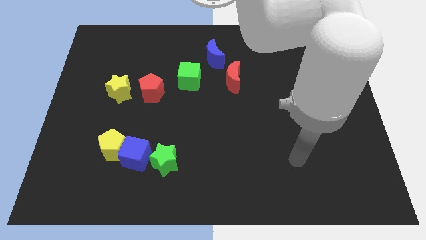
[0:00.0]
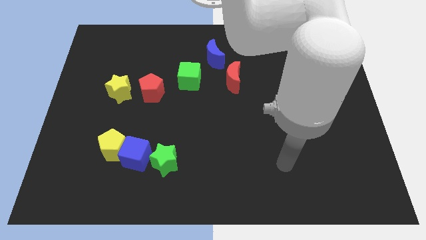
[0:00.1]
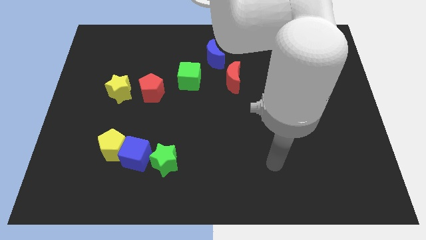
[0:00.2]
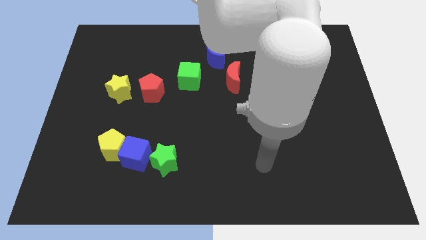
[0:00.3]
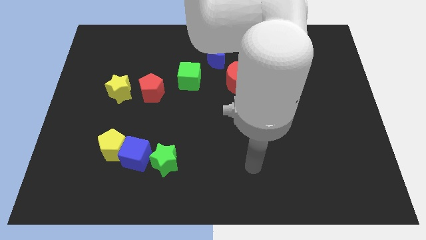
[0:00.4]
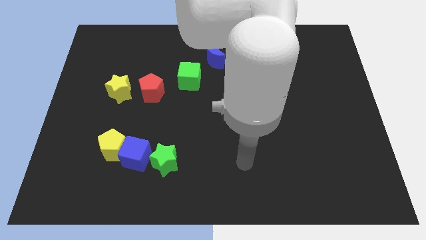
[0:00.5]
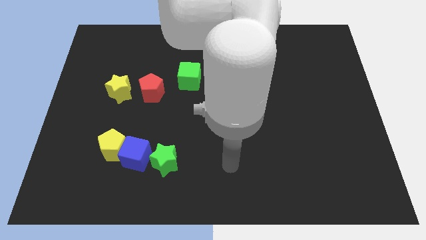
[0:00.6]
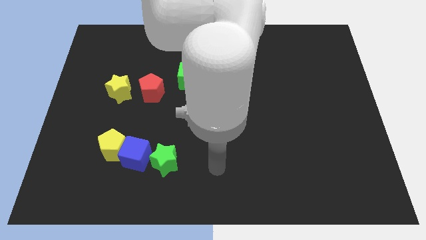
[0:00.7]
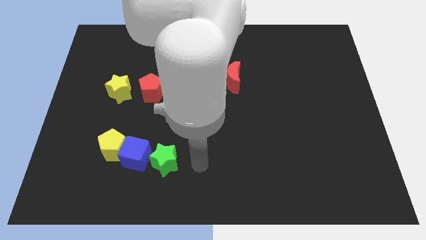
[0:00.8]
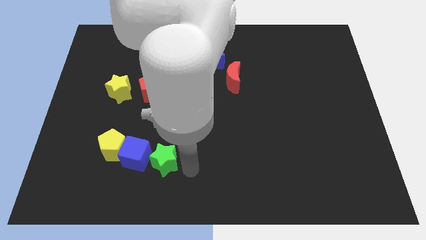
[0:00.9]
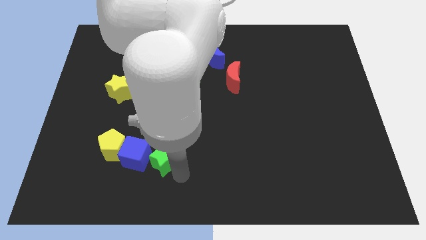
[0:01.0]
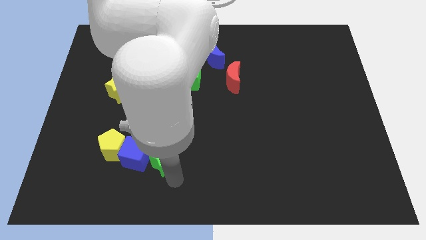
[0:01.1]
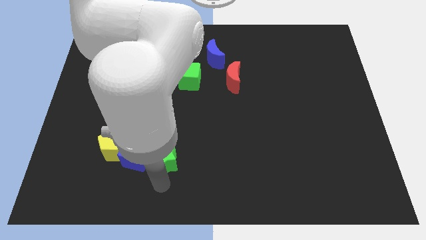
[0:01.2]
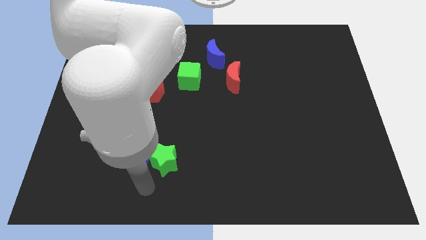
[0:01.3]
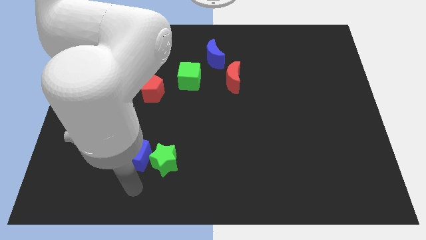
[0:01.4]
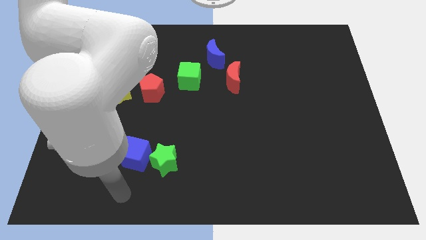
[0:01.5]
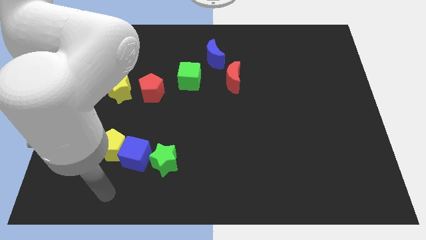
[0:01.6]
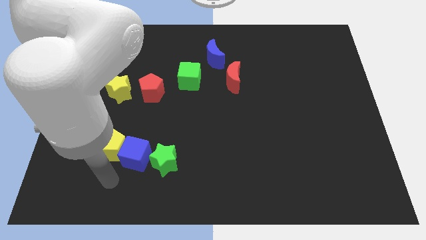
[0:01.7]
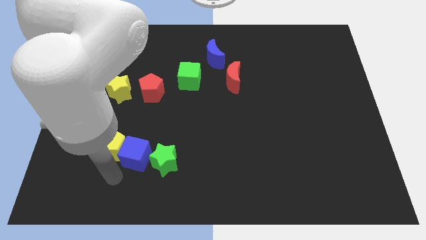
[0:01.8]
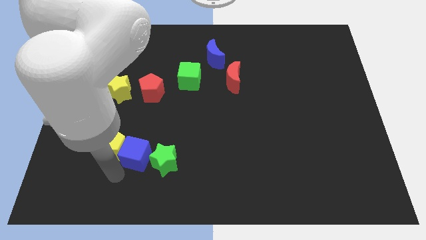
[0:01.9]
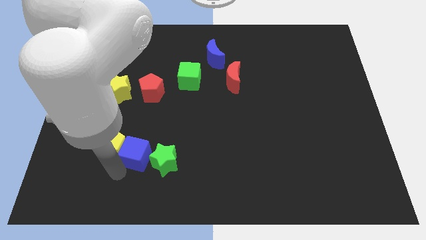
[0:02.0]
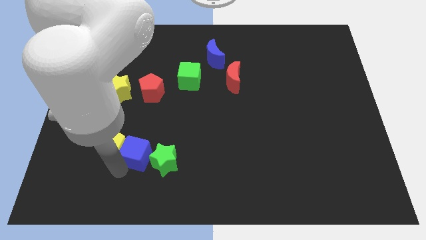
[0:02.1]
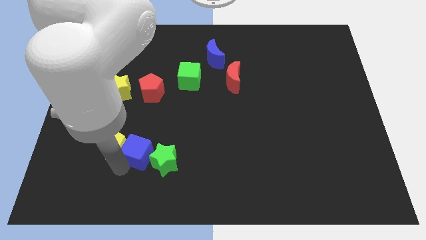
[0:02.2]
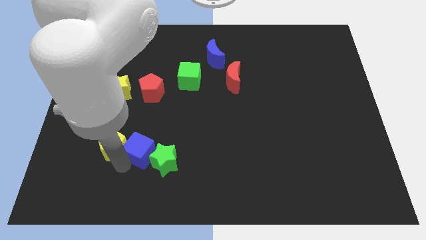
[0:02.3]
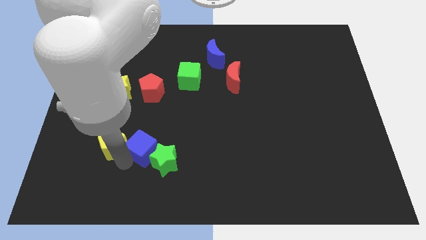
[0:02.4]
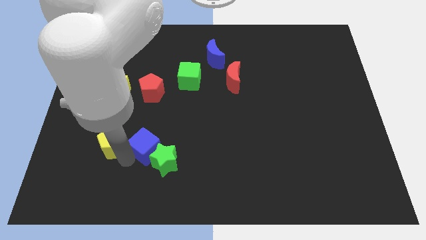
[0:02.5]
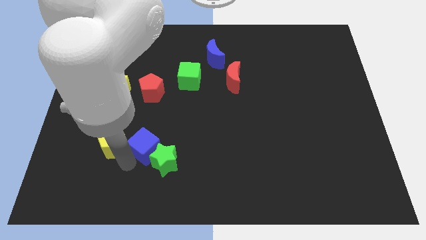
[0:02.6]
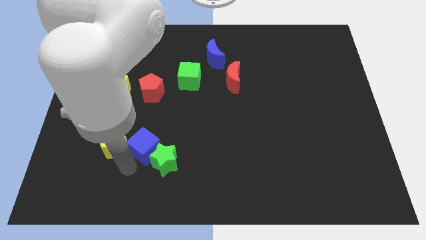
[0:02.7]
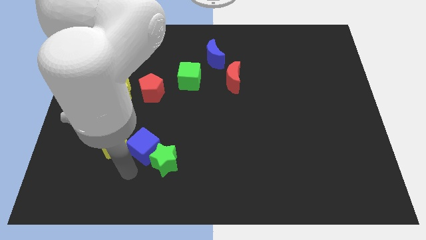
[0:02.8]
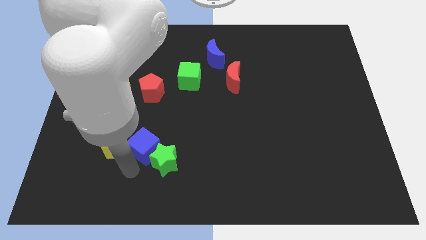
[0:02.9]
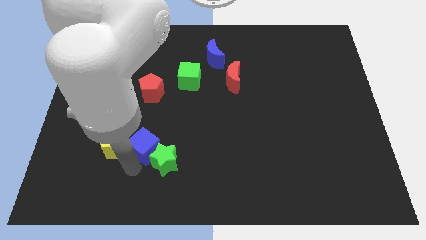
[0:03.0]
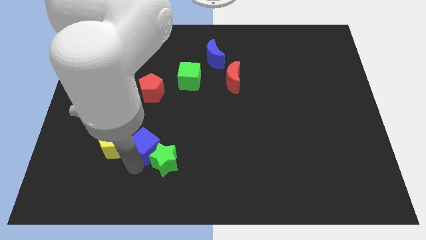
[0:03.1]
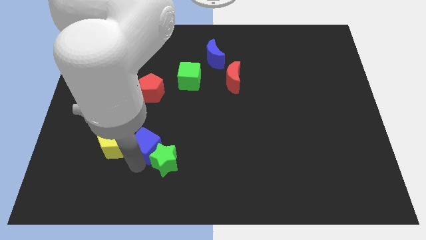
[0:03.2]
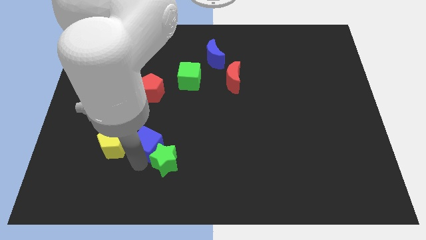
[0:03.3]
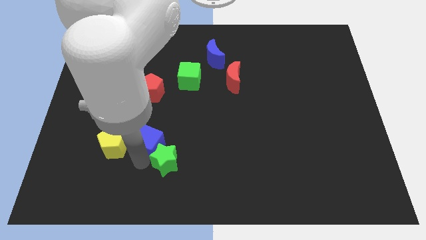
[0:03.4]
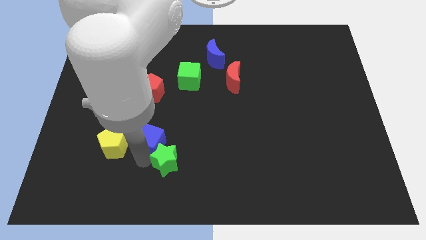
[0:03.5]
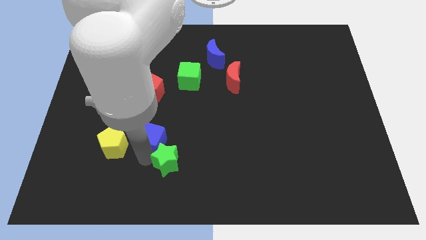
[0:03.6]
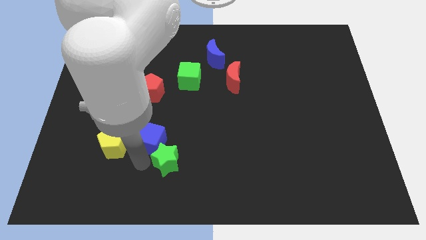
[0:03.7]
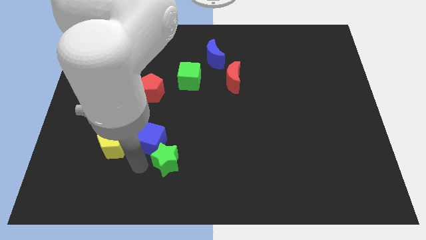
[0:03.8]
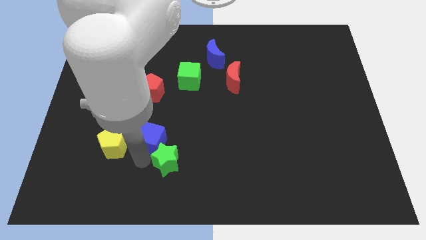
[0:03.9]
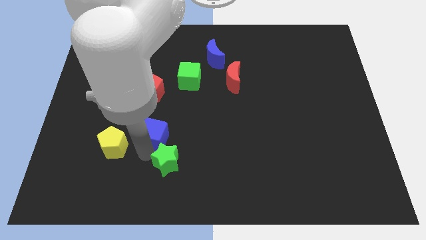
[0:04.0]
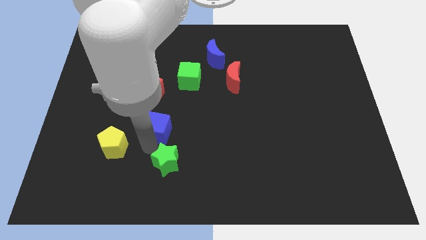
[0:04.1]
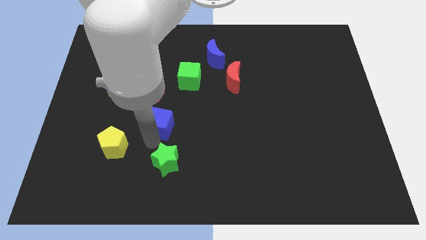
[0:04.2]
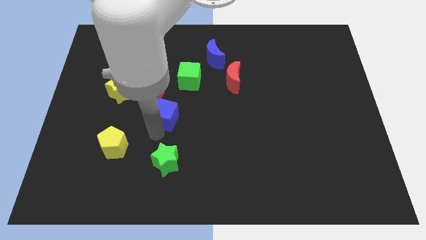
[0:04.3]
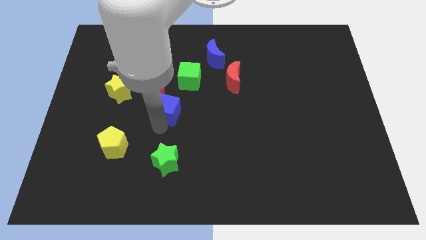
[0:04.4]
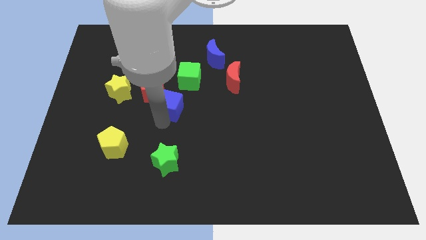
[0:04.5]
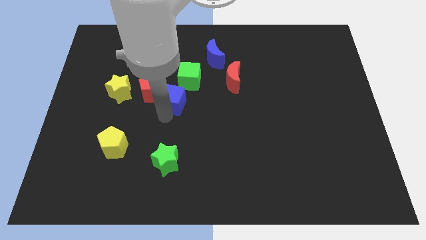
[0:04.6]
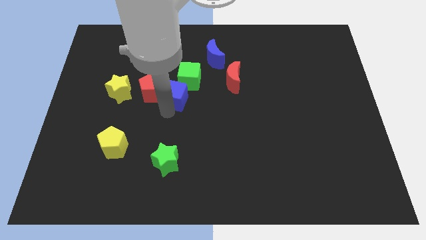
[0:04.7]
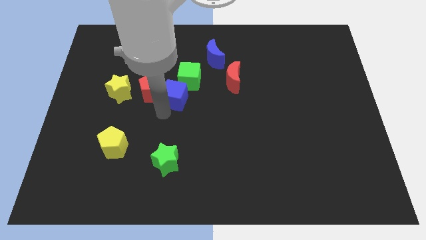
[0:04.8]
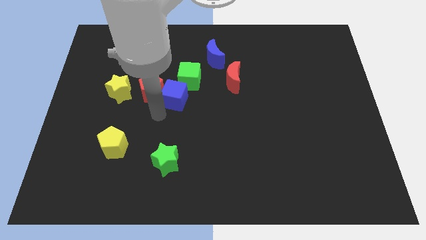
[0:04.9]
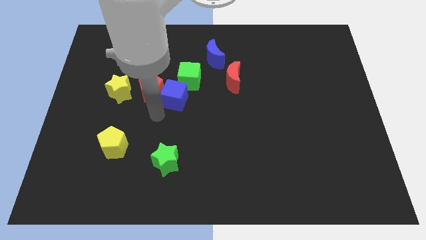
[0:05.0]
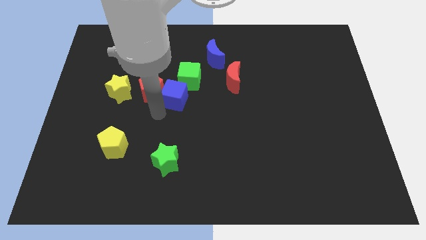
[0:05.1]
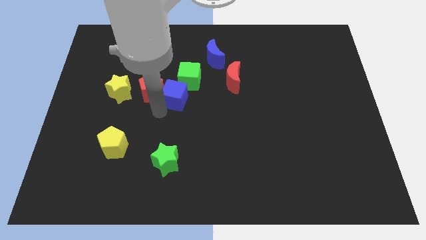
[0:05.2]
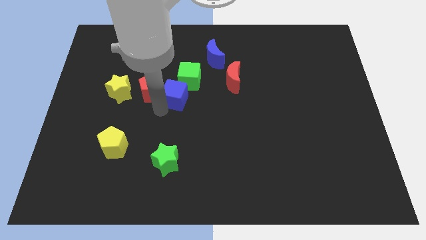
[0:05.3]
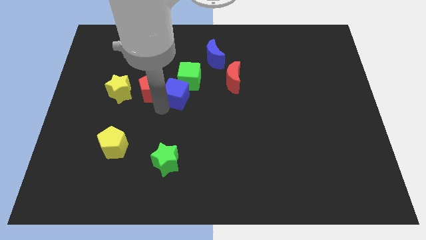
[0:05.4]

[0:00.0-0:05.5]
put the blue cube close to the green cube

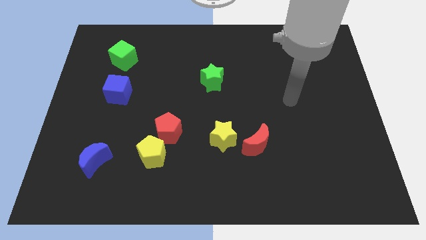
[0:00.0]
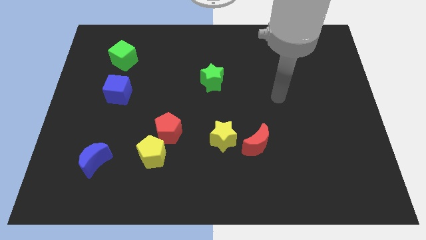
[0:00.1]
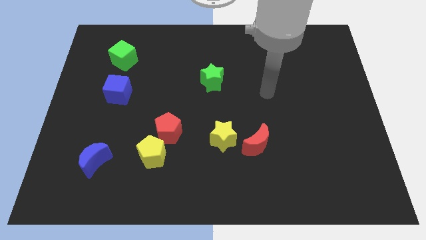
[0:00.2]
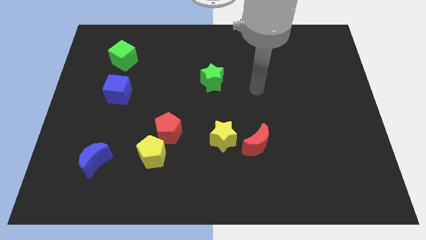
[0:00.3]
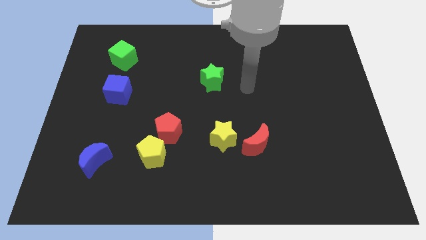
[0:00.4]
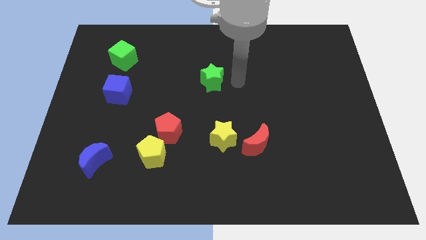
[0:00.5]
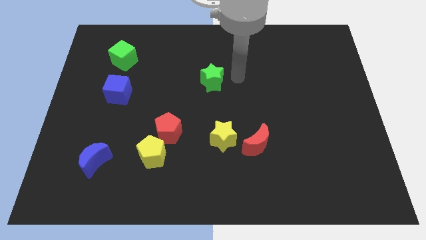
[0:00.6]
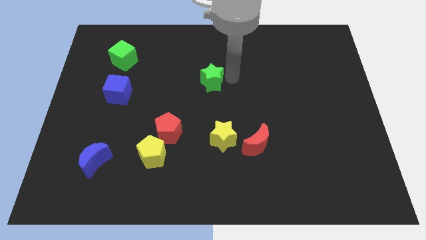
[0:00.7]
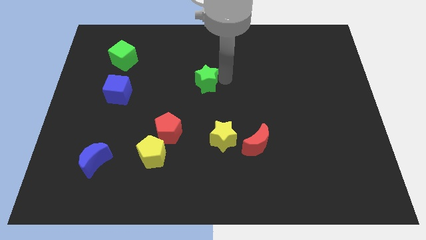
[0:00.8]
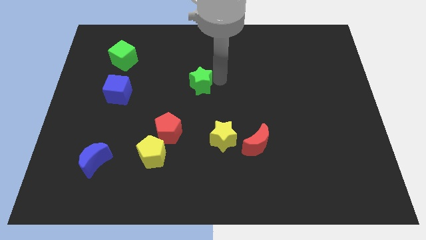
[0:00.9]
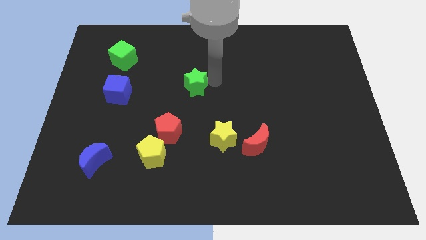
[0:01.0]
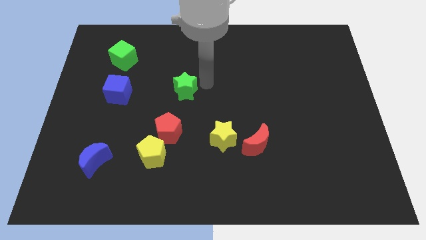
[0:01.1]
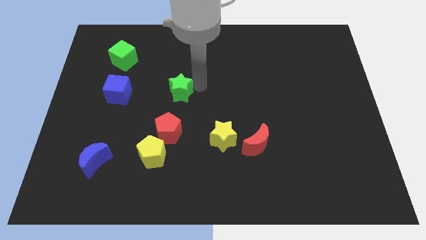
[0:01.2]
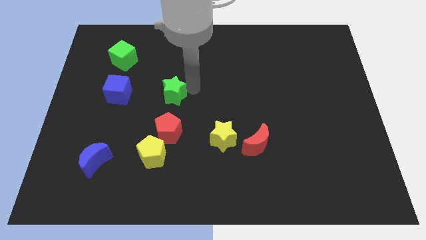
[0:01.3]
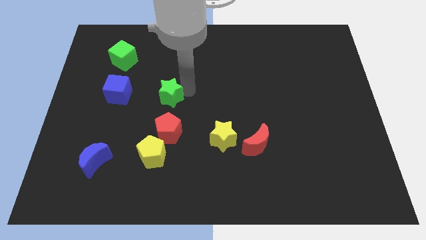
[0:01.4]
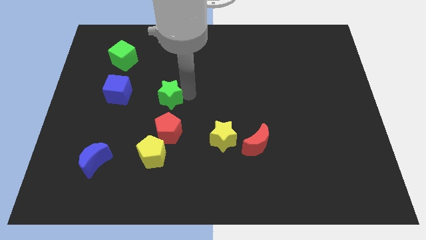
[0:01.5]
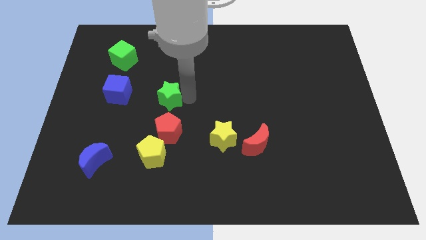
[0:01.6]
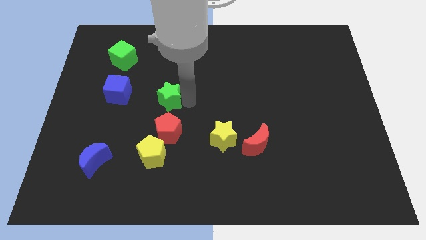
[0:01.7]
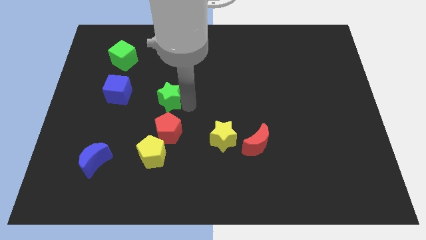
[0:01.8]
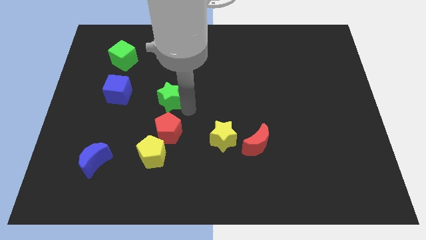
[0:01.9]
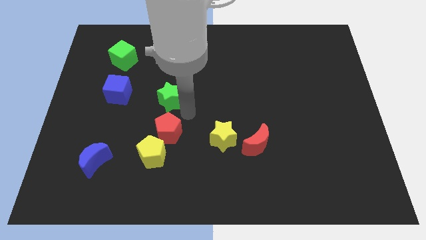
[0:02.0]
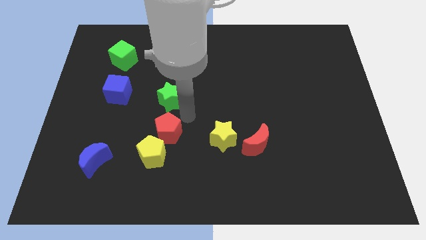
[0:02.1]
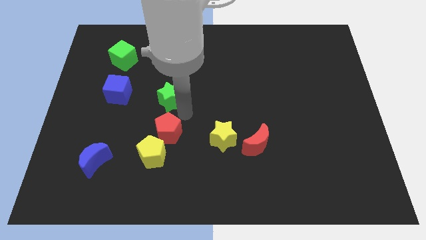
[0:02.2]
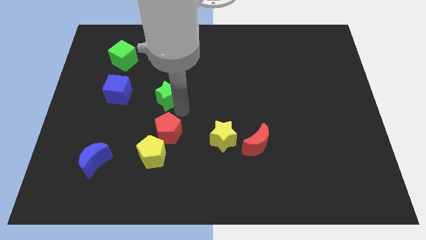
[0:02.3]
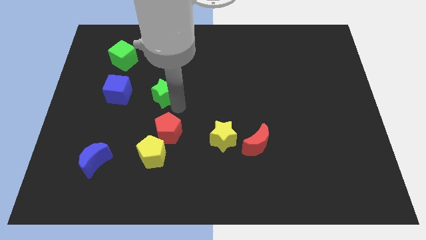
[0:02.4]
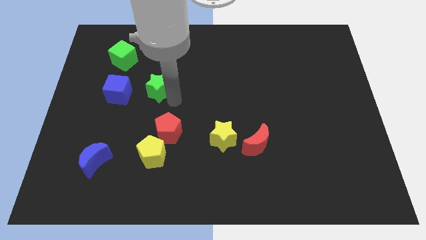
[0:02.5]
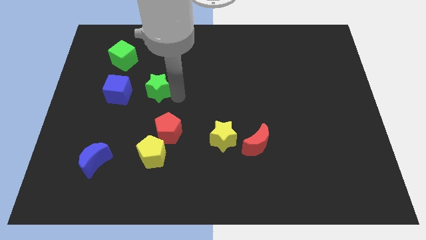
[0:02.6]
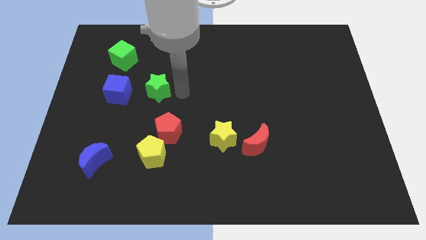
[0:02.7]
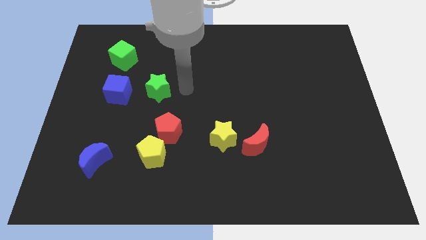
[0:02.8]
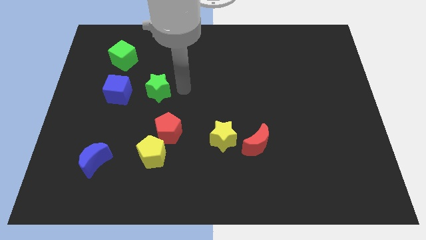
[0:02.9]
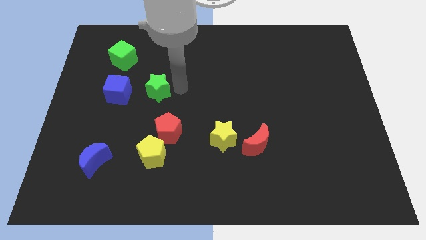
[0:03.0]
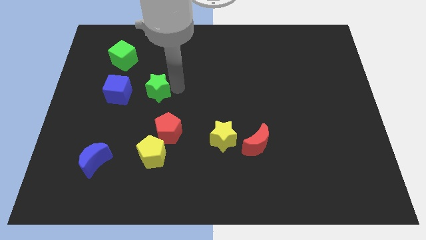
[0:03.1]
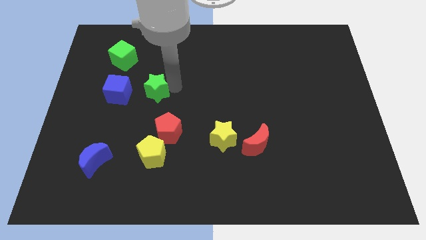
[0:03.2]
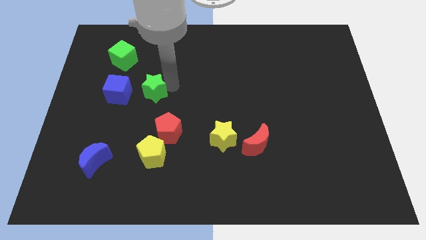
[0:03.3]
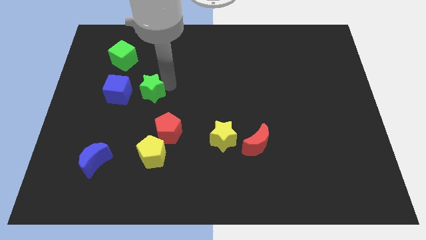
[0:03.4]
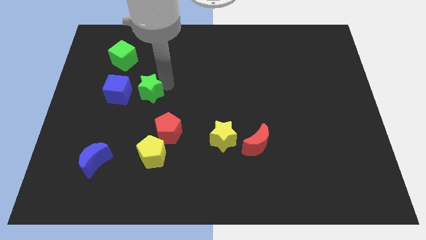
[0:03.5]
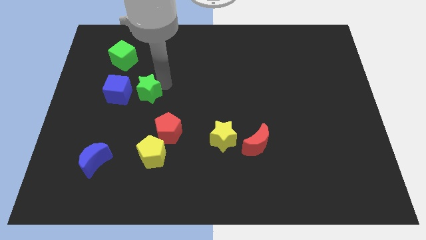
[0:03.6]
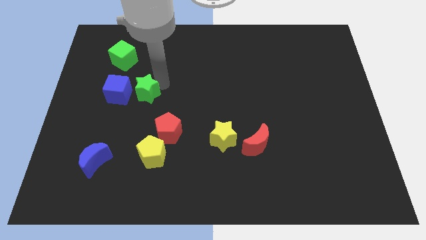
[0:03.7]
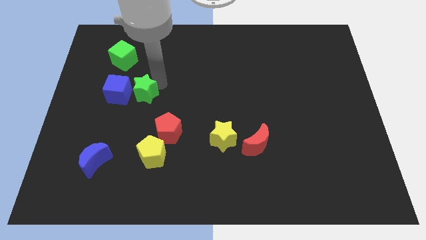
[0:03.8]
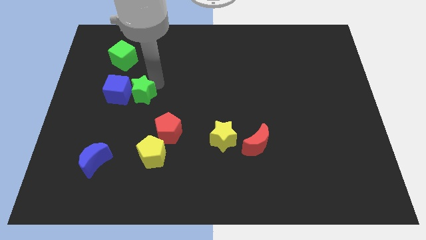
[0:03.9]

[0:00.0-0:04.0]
move the green star to the blue cube
